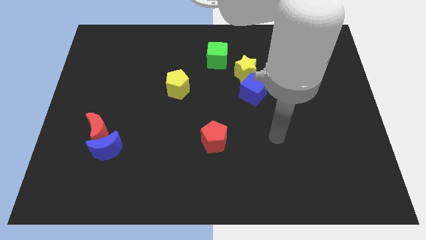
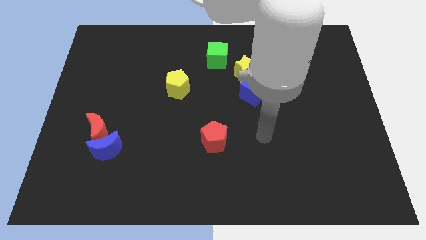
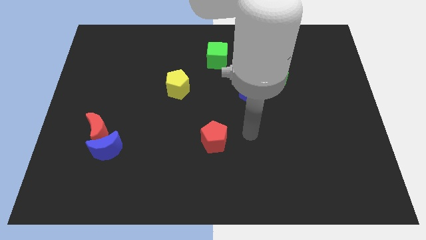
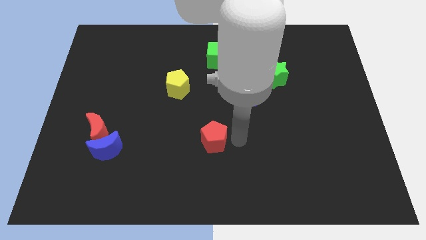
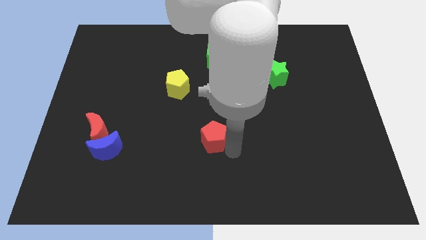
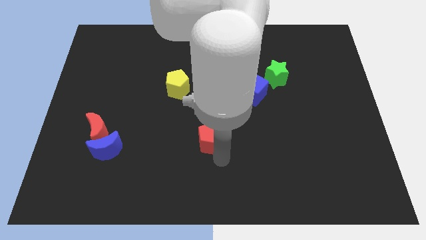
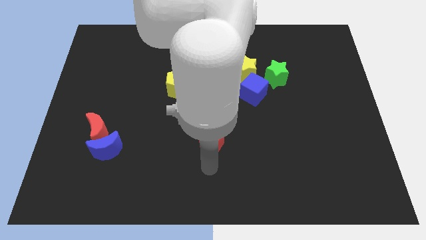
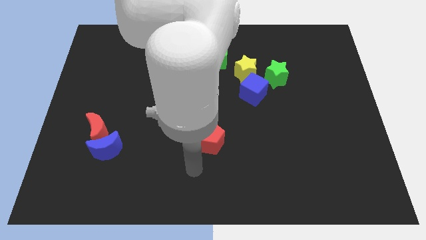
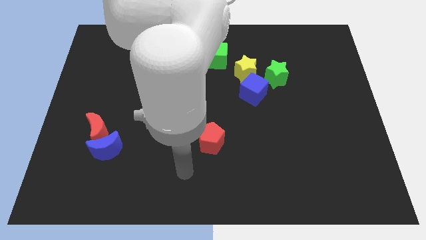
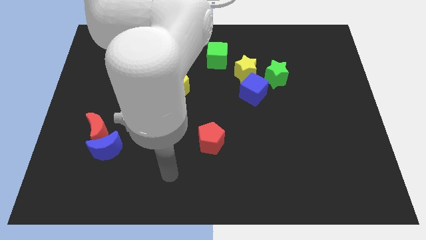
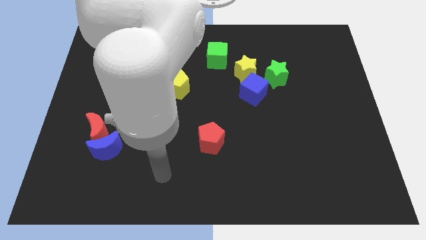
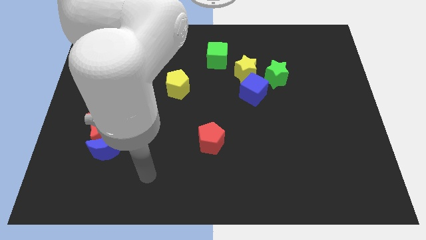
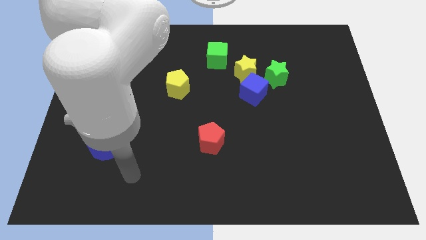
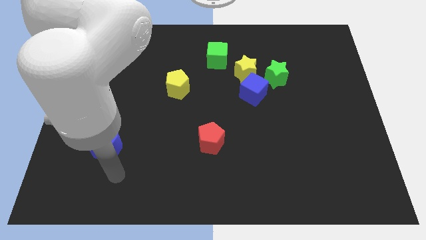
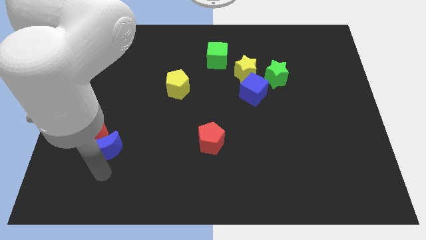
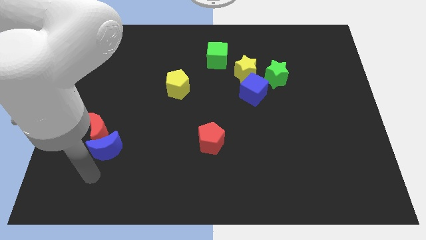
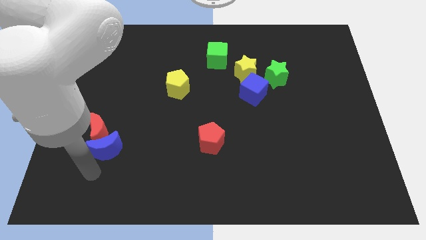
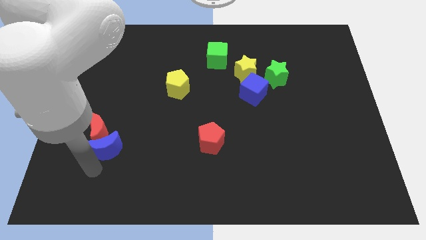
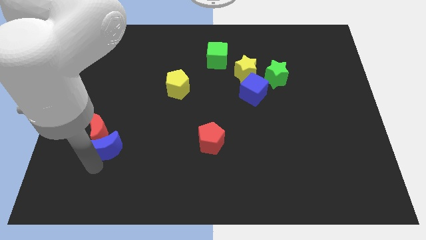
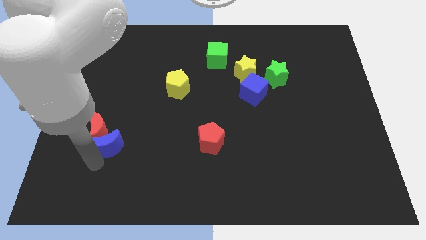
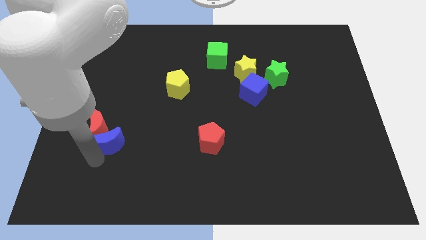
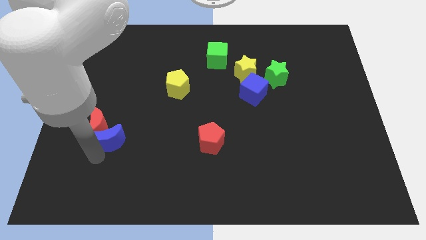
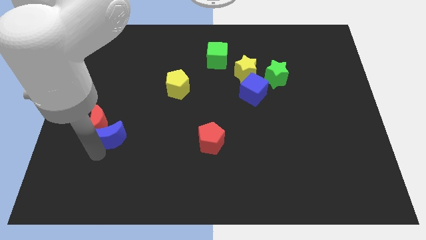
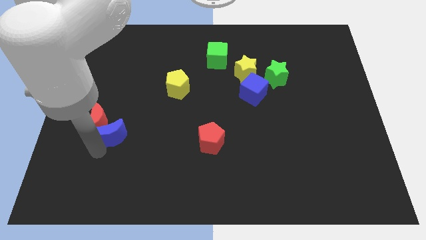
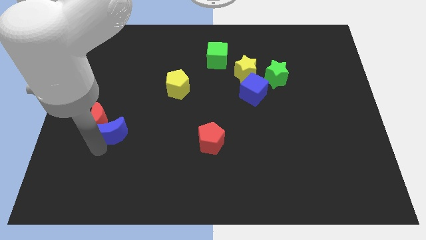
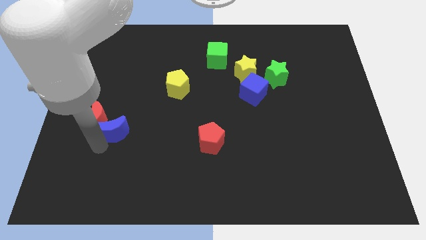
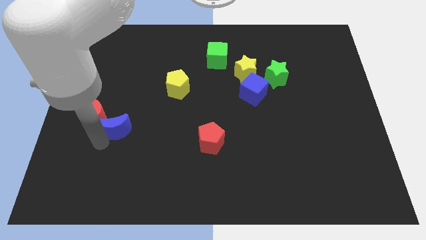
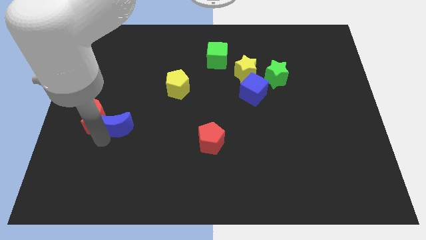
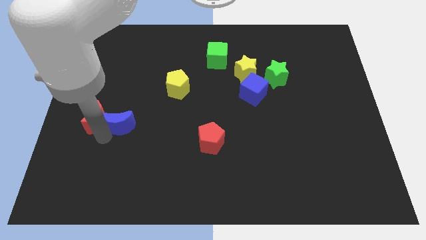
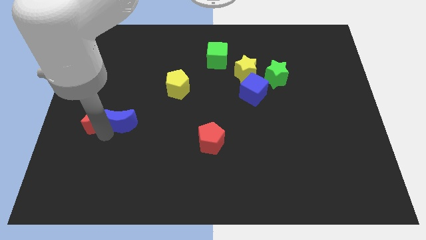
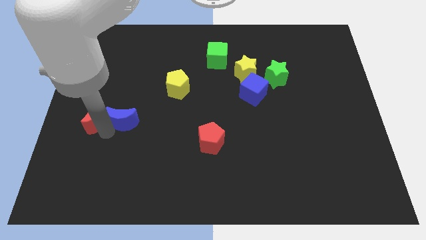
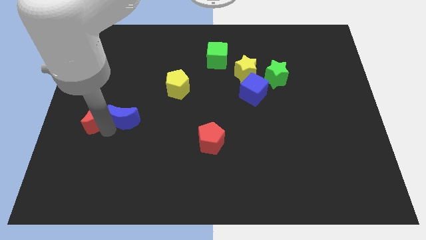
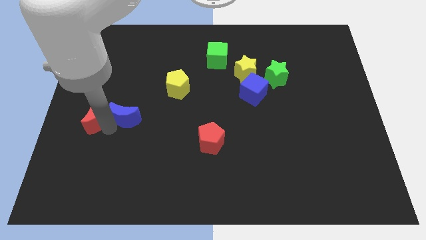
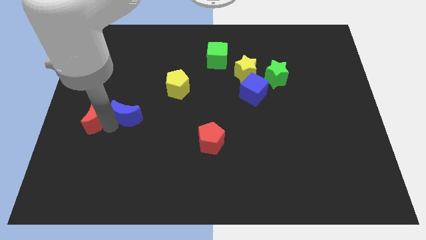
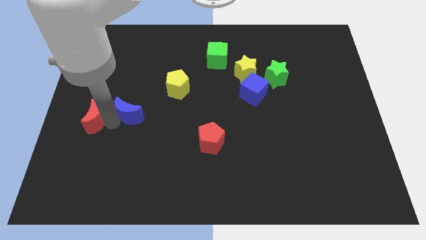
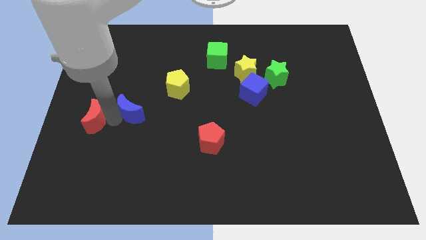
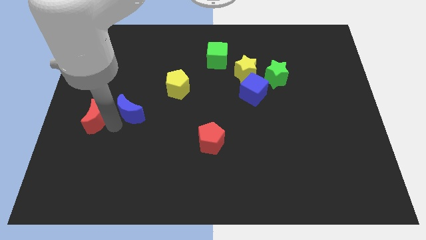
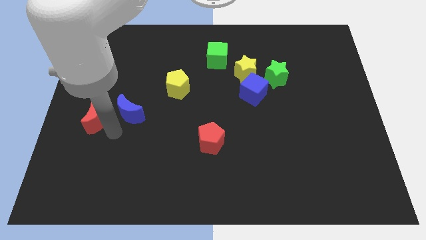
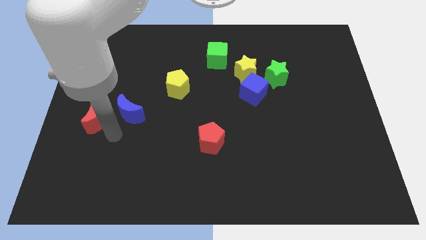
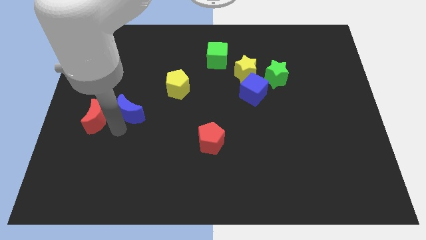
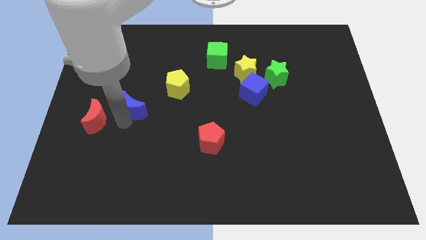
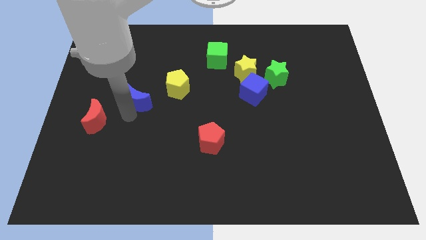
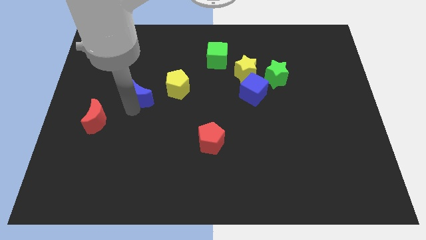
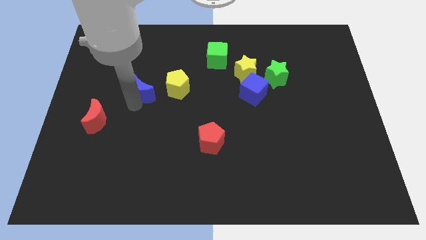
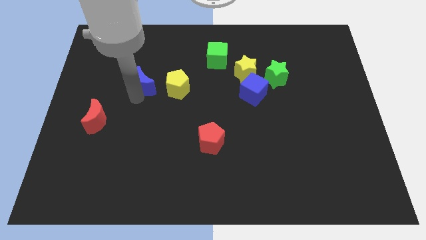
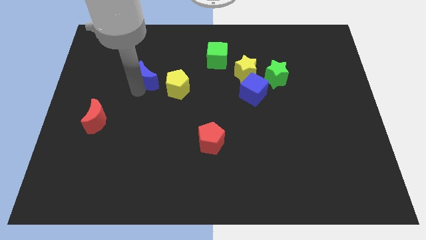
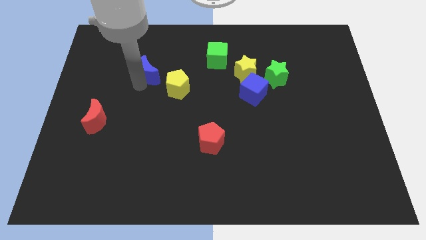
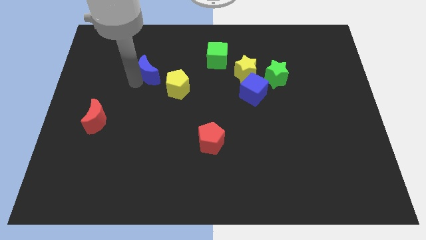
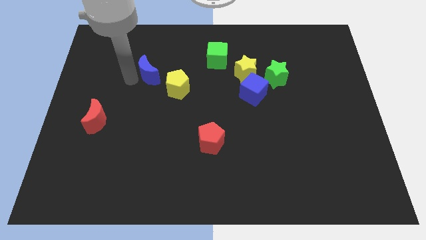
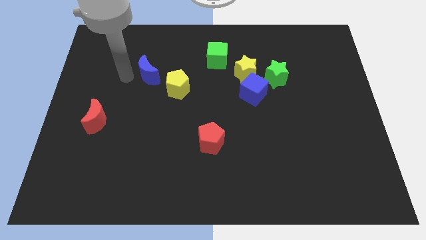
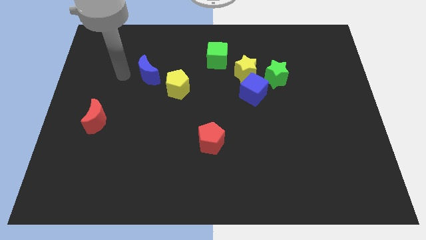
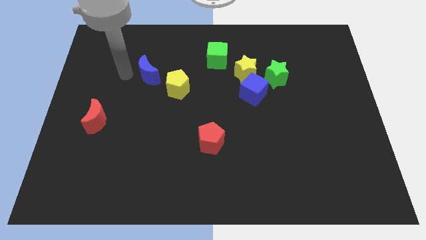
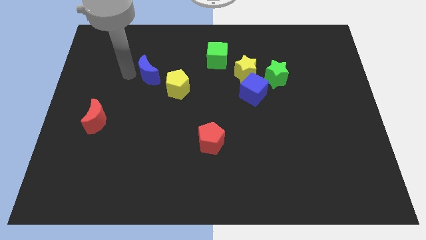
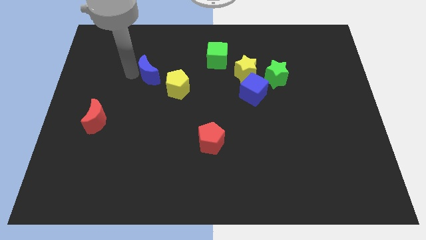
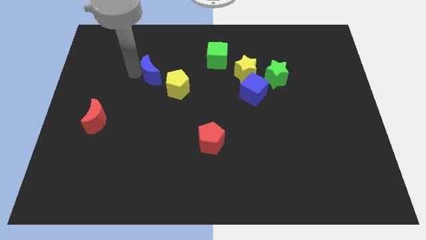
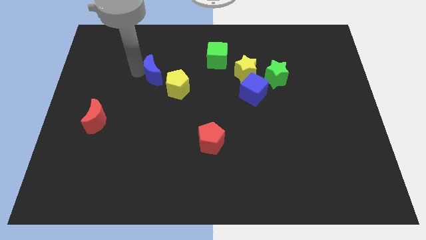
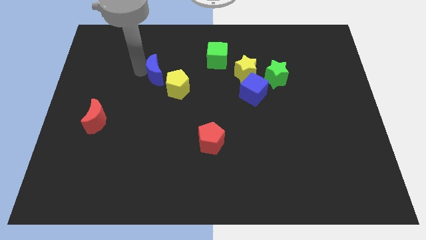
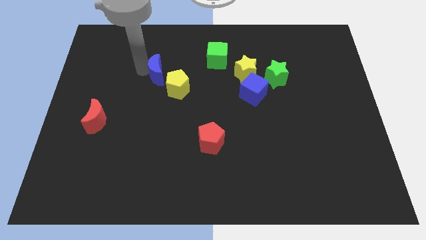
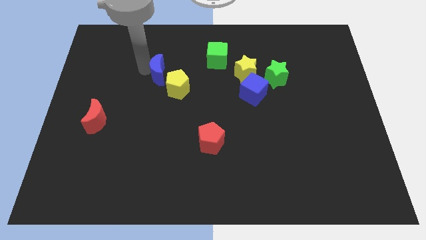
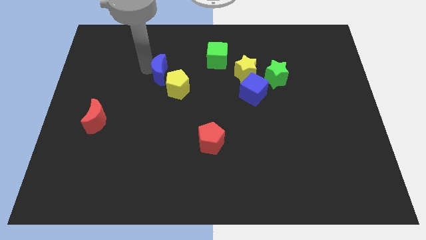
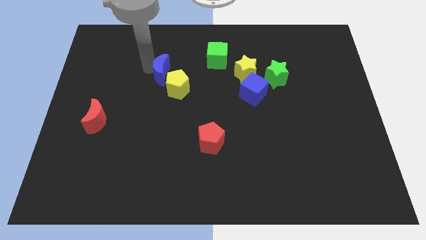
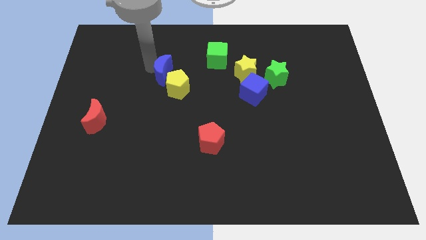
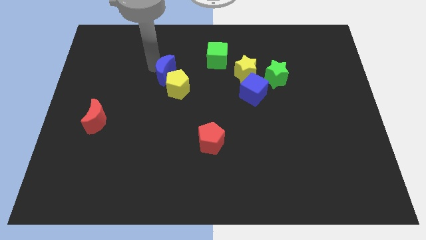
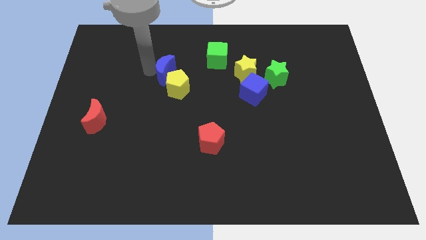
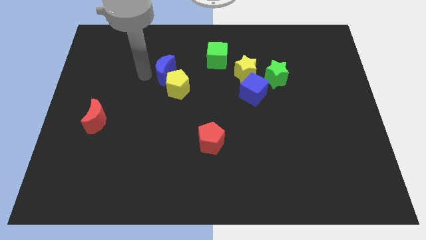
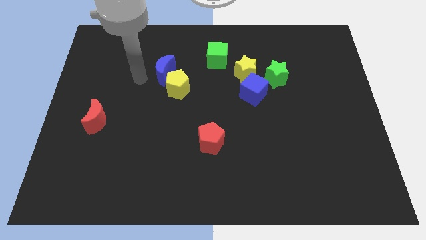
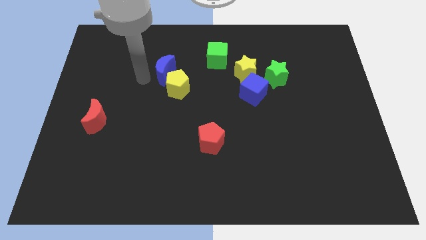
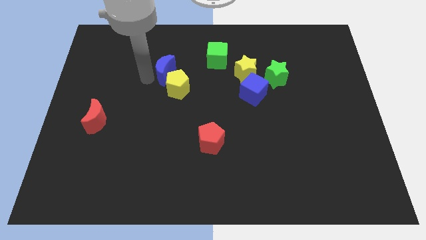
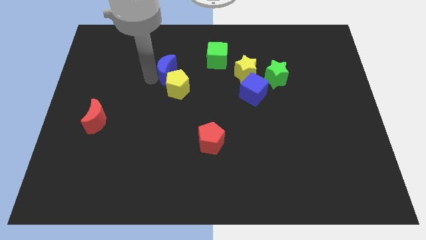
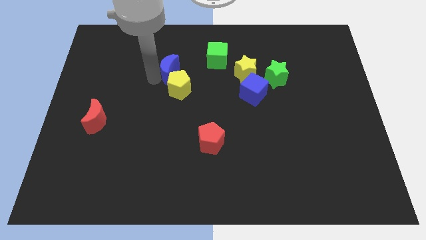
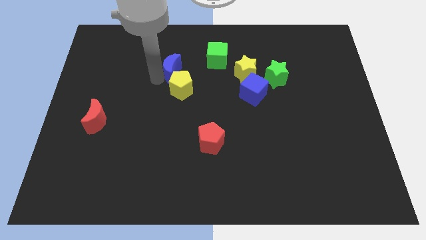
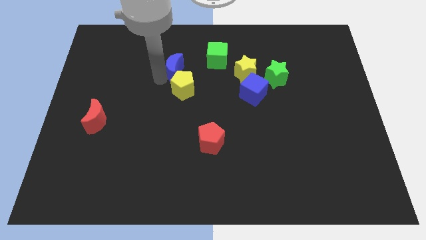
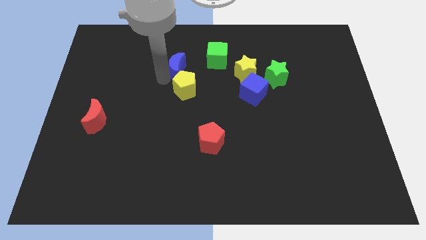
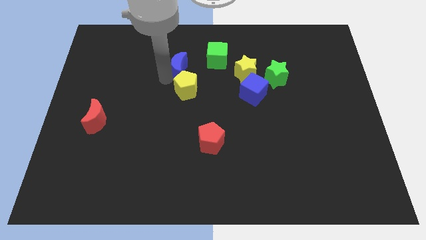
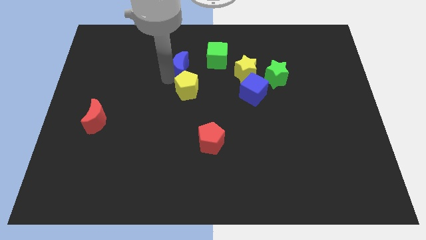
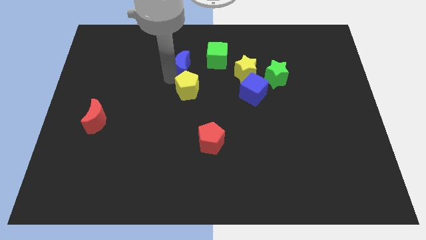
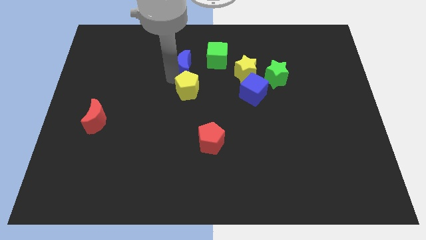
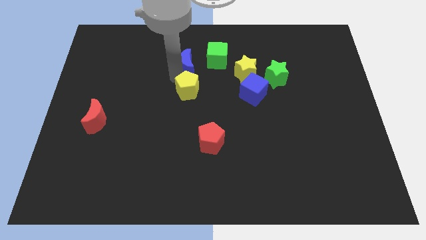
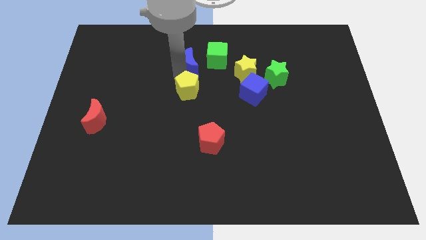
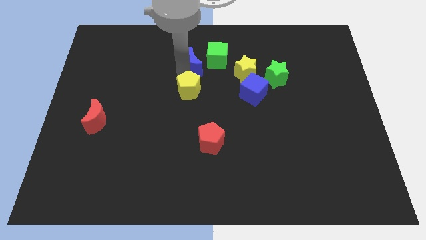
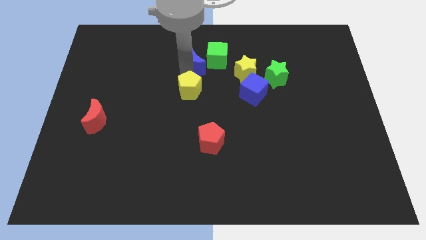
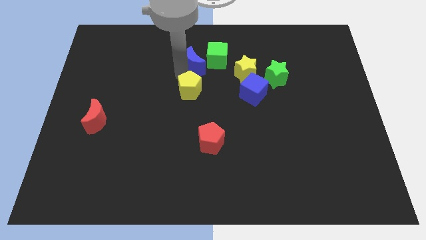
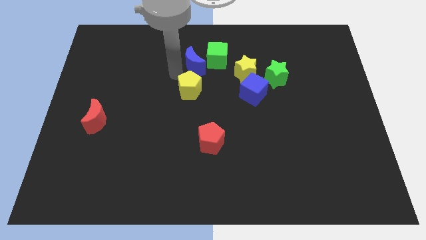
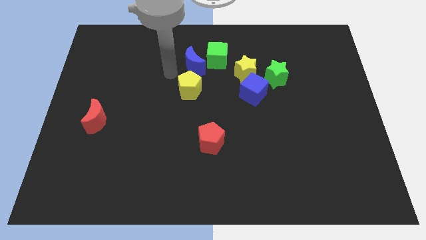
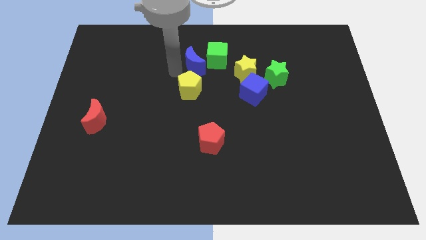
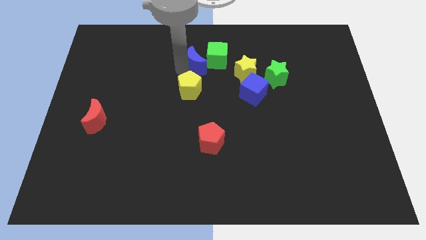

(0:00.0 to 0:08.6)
slide the blue moon next to the green cube
